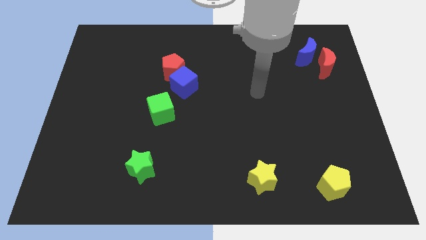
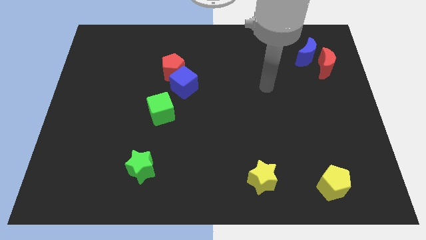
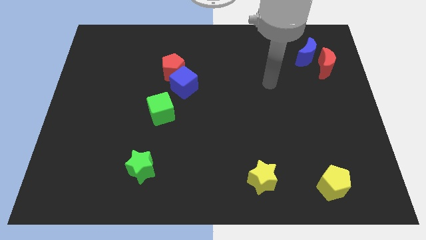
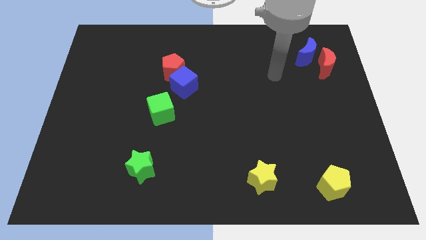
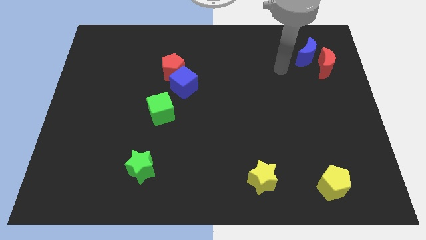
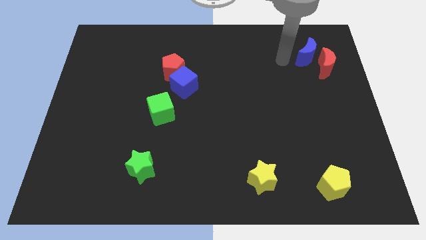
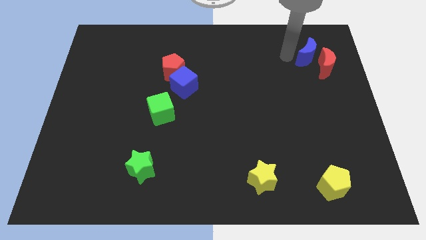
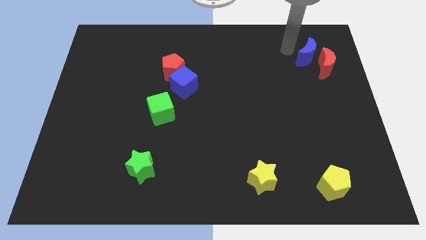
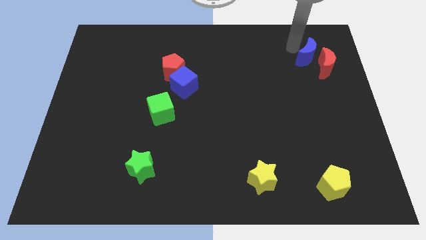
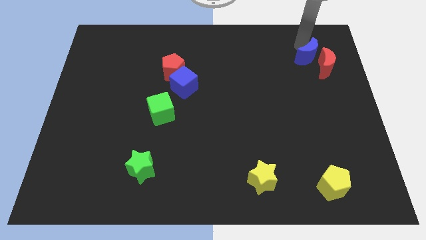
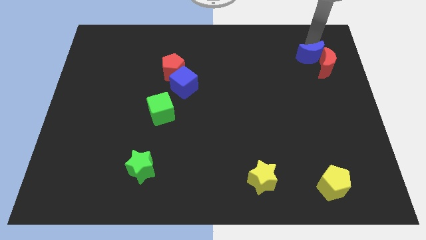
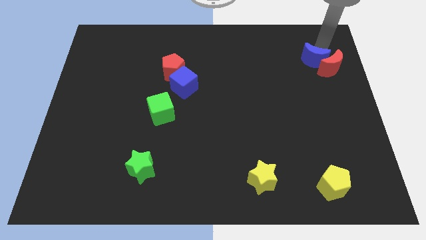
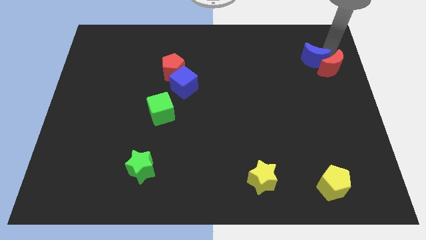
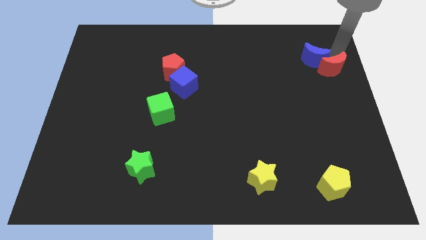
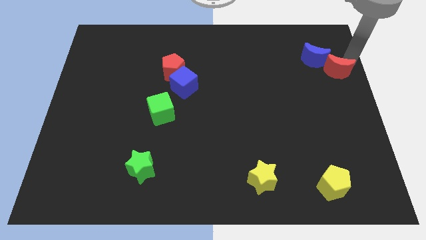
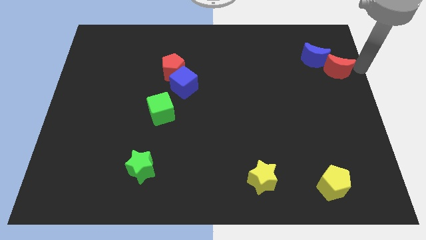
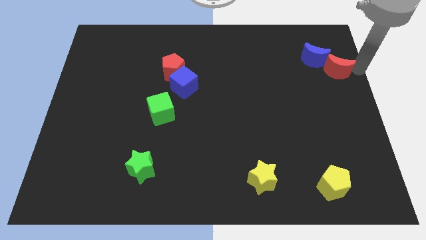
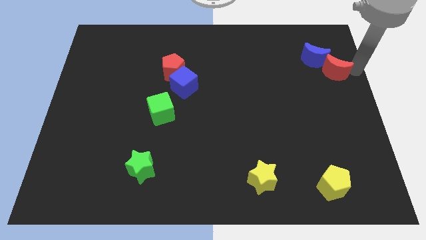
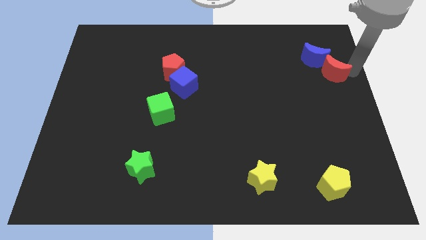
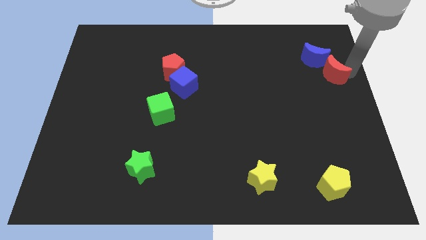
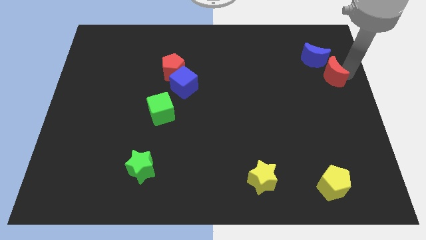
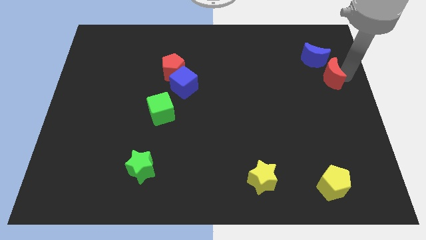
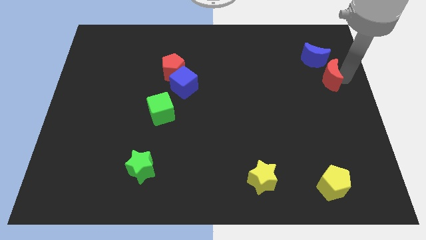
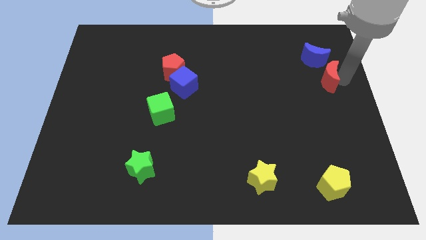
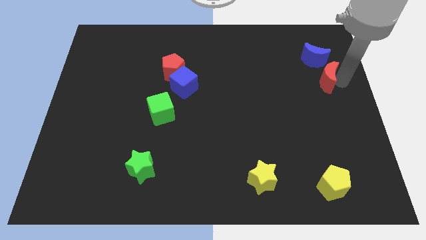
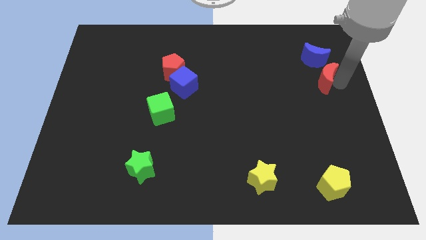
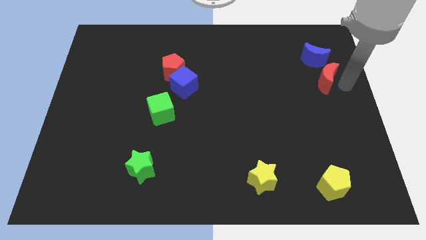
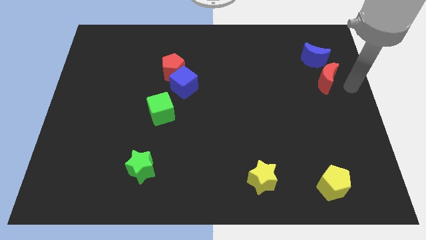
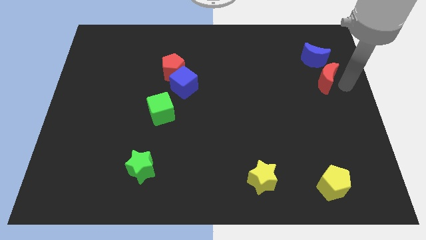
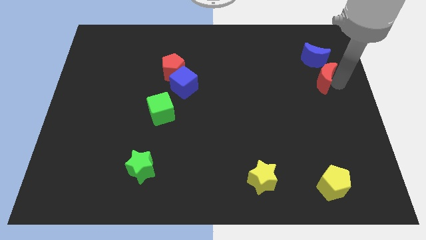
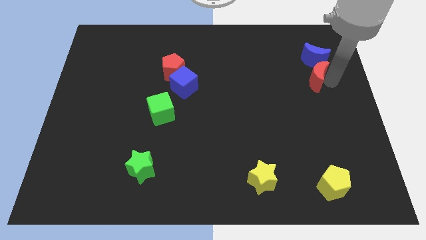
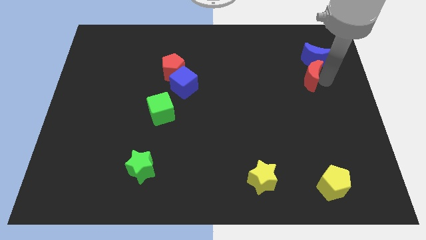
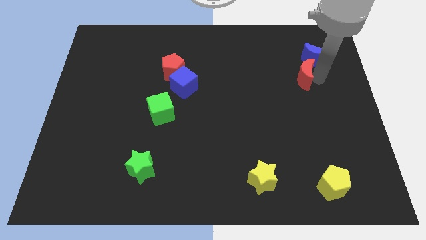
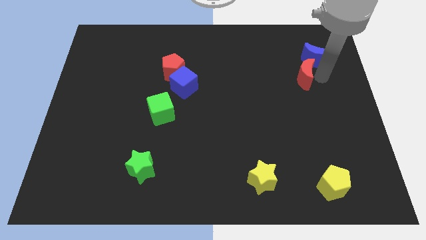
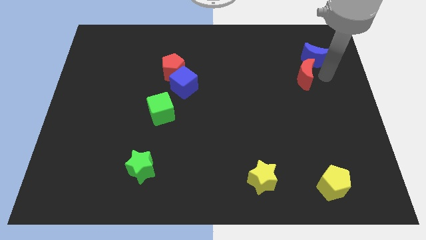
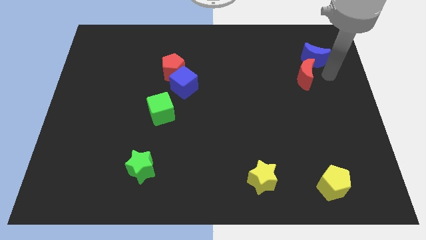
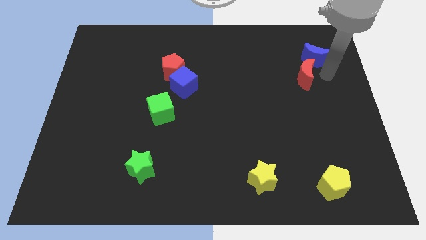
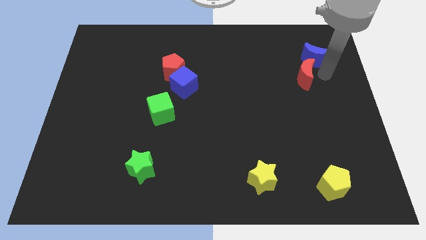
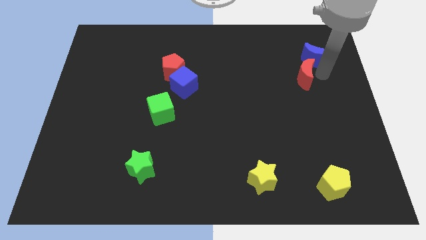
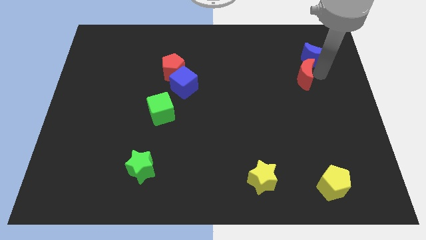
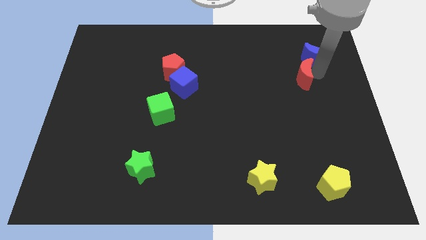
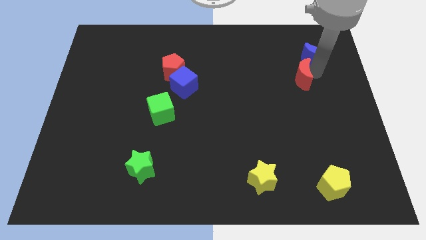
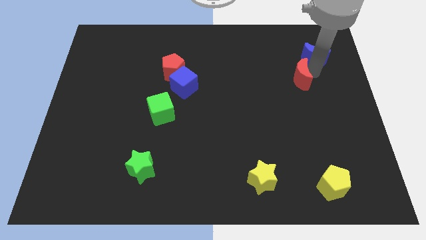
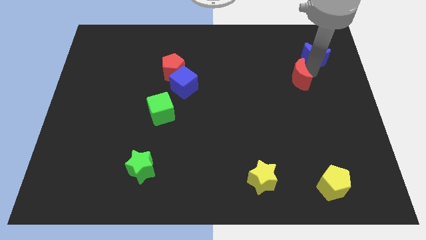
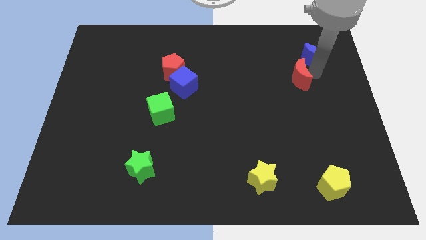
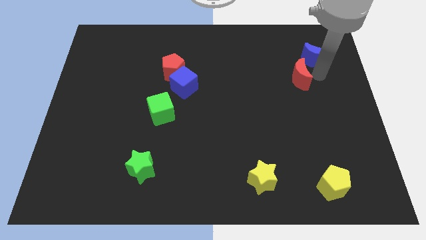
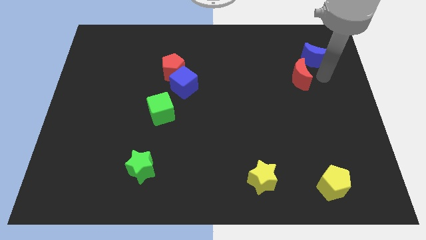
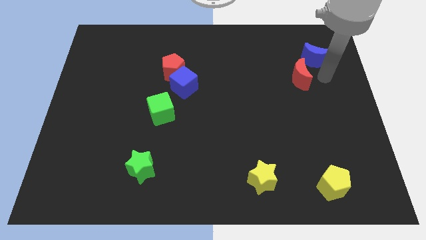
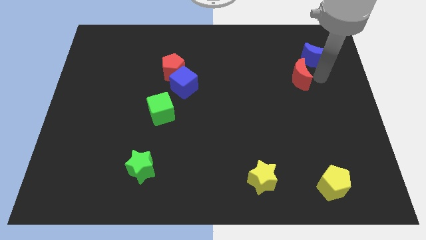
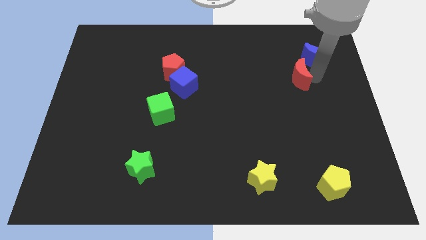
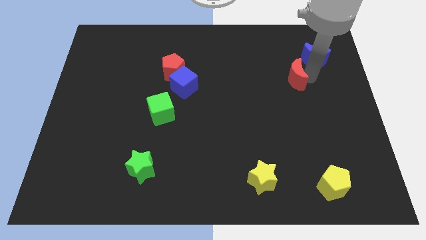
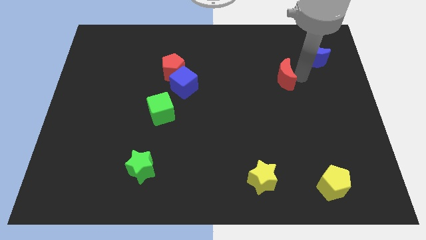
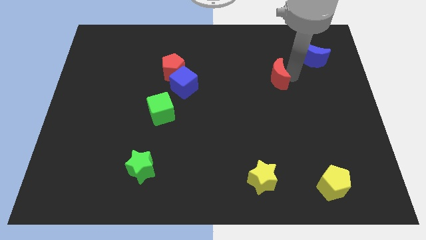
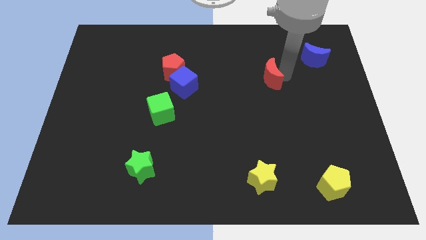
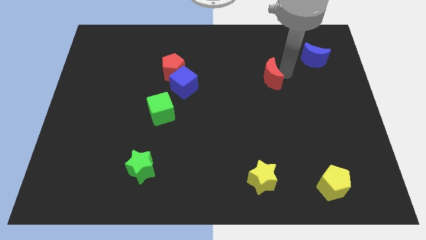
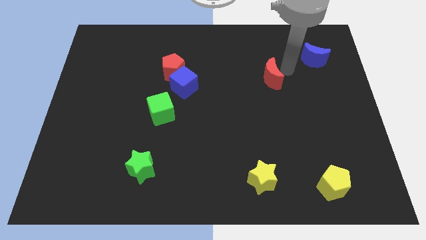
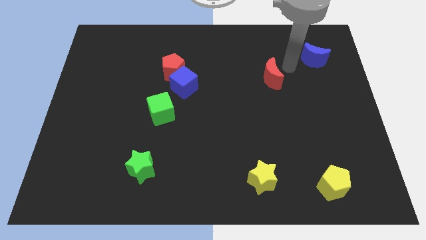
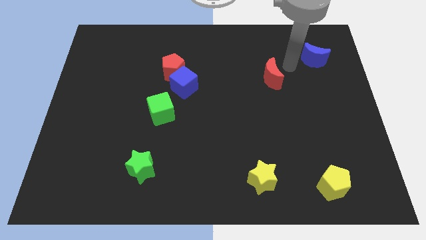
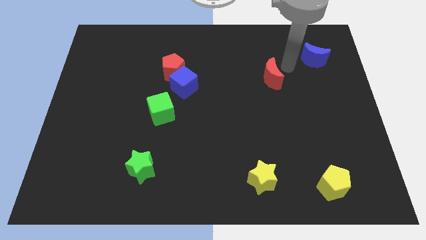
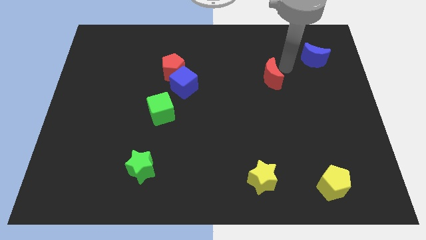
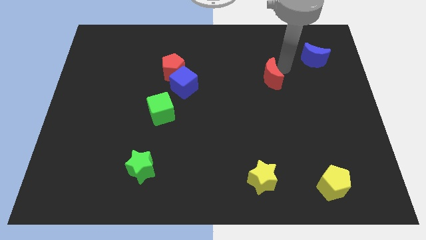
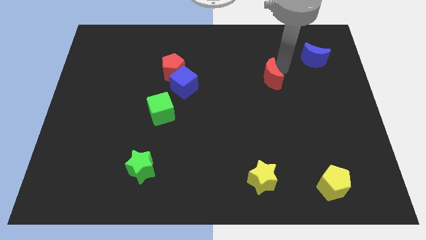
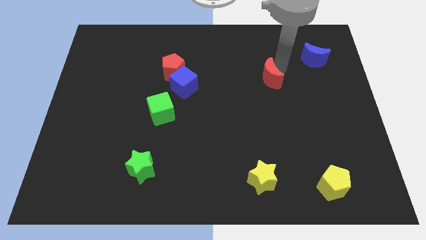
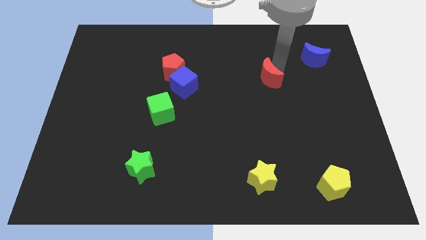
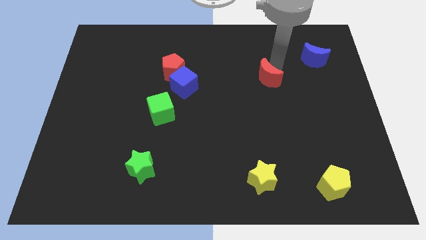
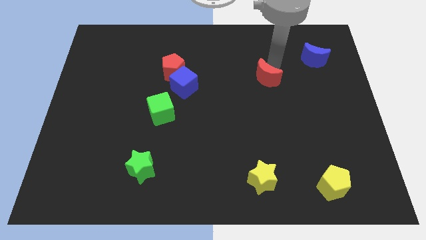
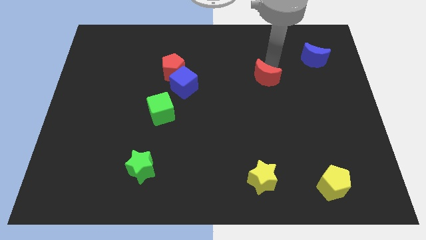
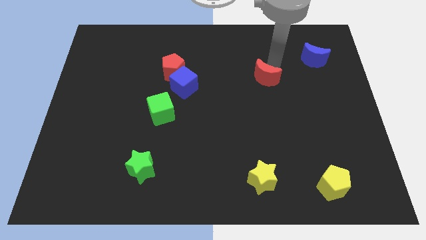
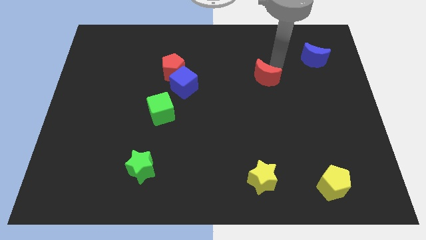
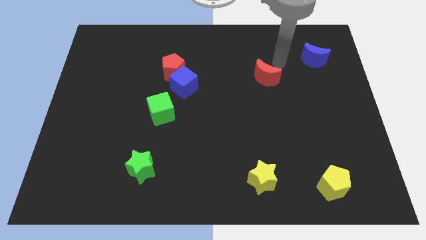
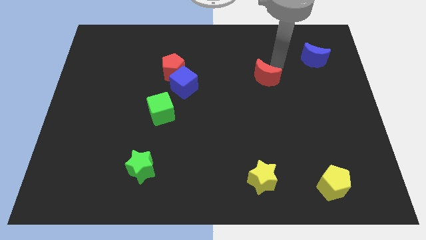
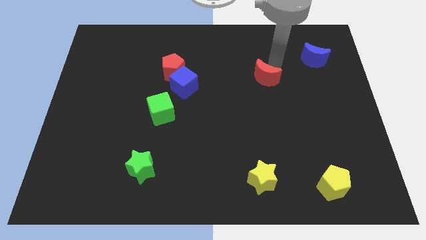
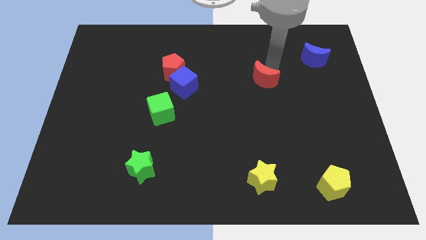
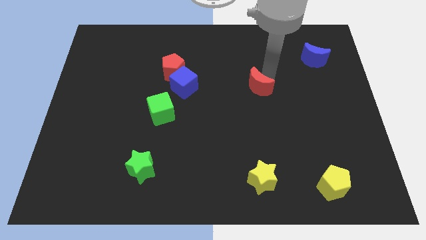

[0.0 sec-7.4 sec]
put the red moon to the middle

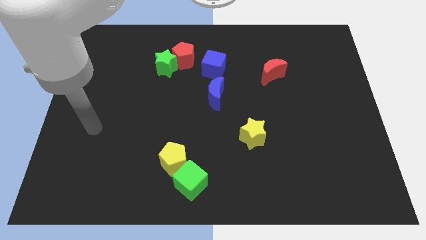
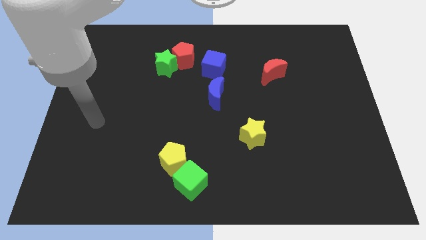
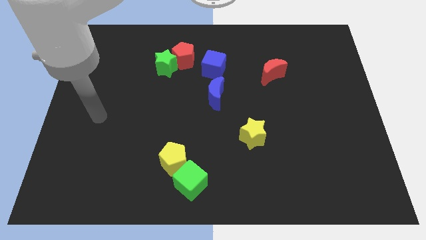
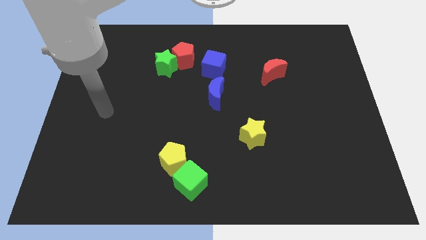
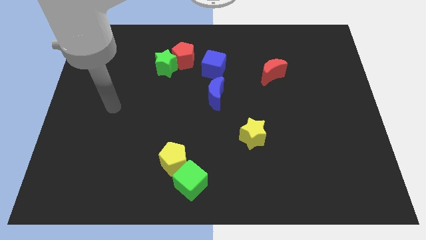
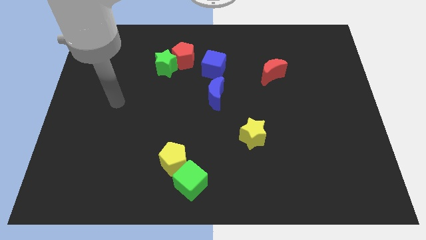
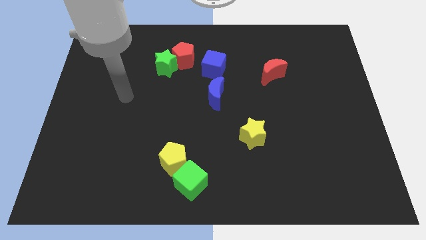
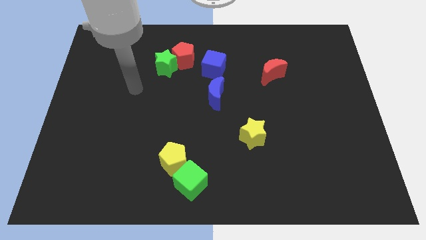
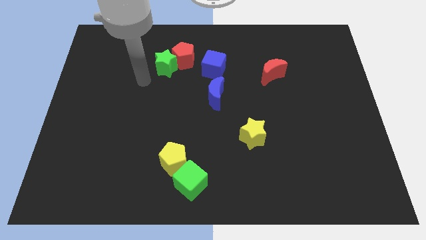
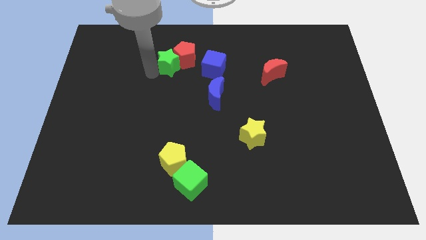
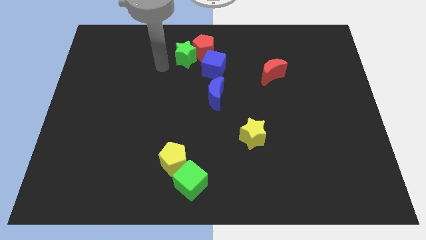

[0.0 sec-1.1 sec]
put the red pentagon to the top side
